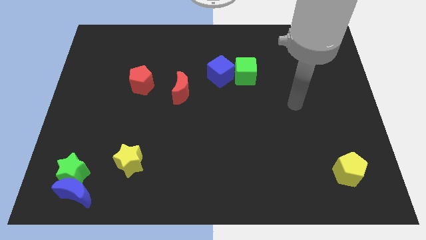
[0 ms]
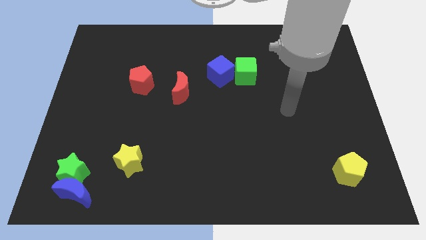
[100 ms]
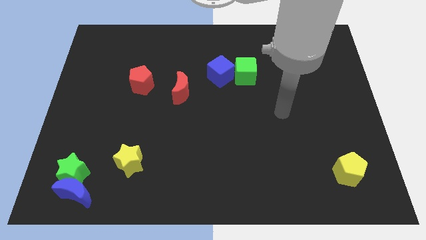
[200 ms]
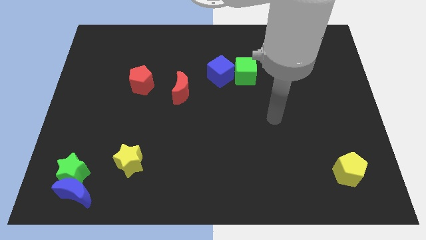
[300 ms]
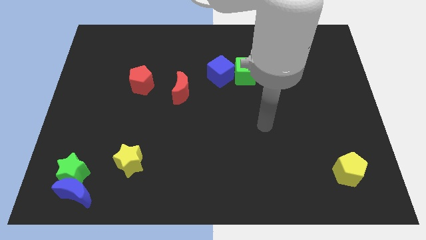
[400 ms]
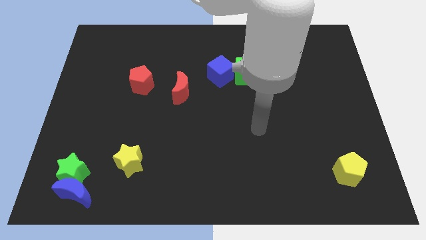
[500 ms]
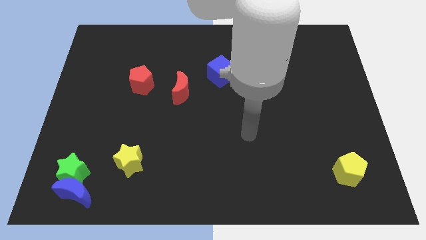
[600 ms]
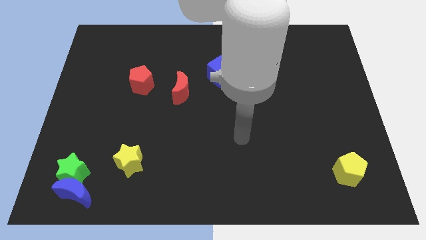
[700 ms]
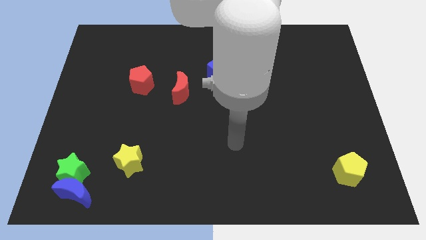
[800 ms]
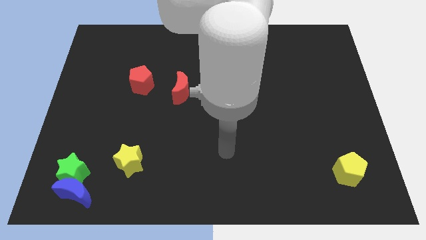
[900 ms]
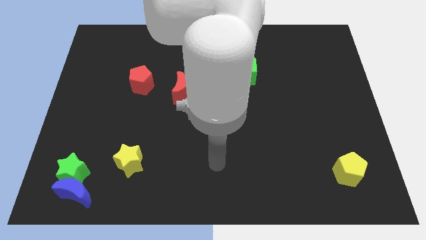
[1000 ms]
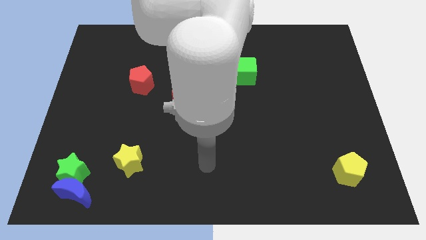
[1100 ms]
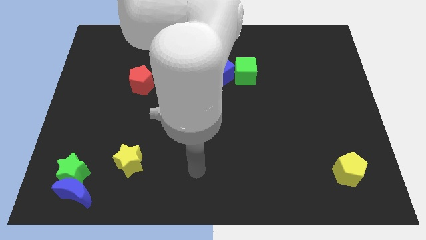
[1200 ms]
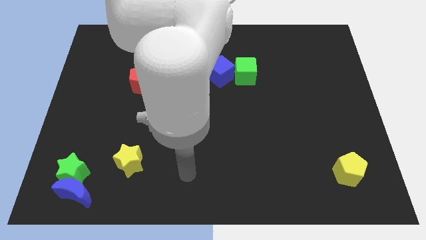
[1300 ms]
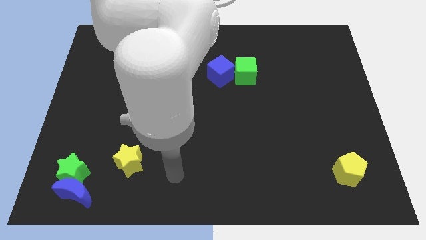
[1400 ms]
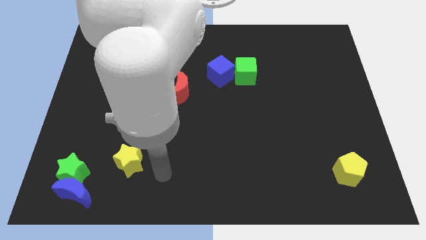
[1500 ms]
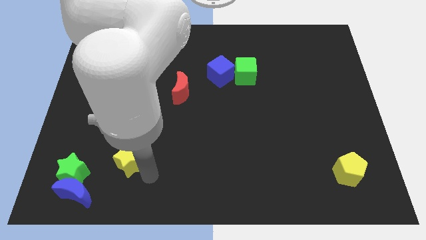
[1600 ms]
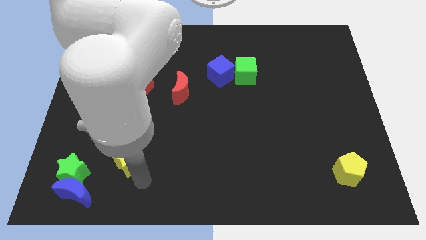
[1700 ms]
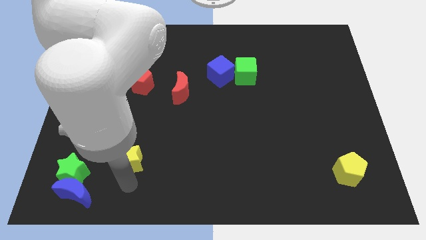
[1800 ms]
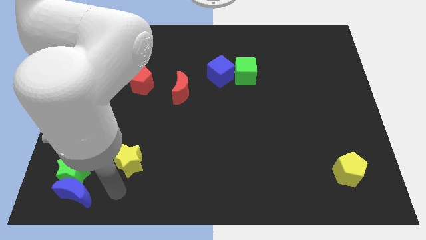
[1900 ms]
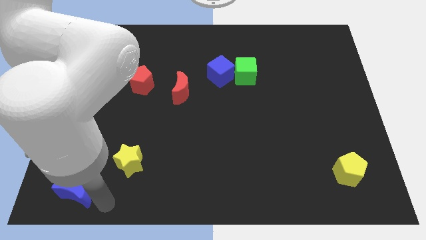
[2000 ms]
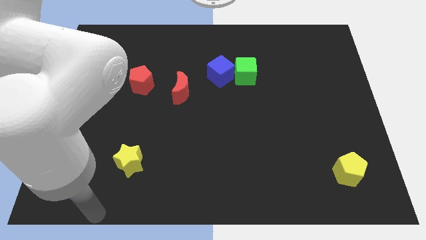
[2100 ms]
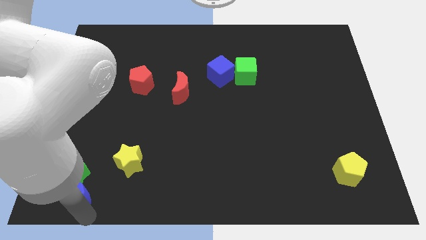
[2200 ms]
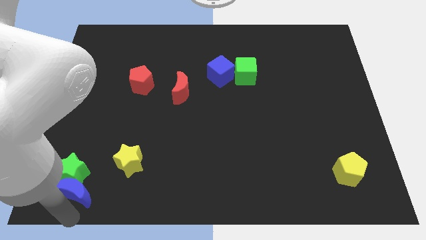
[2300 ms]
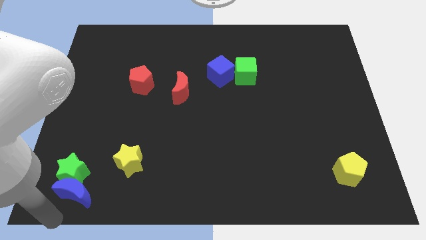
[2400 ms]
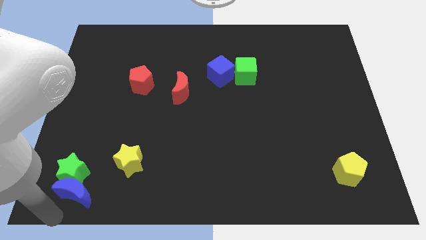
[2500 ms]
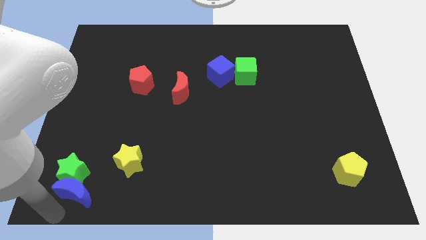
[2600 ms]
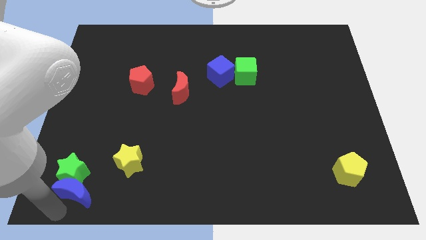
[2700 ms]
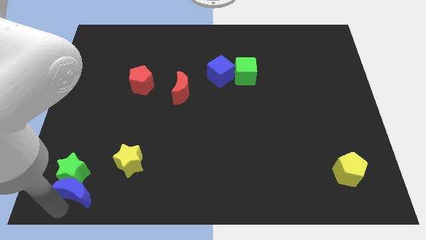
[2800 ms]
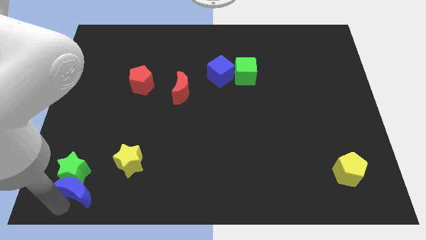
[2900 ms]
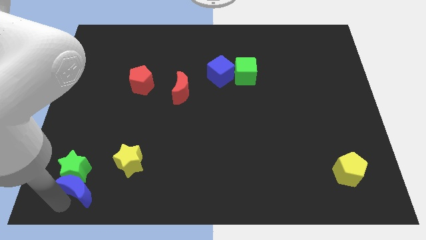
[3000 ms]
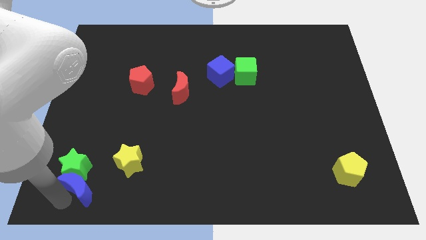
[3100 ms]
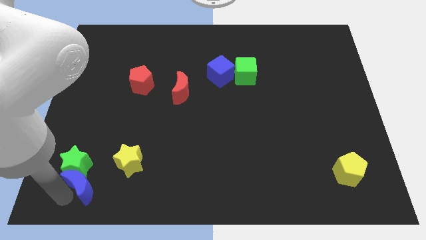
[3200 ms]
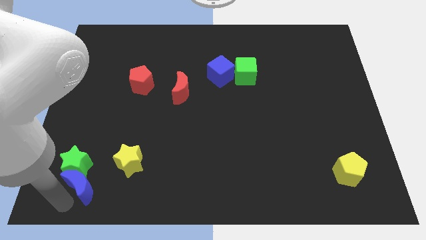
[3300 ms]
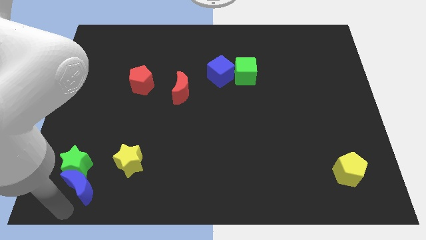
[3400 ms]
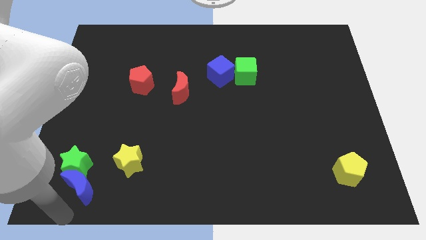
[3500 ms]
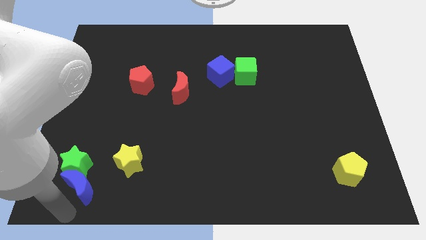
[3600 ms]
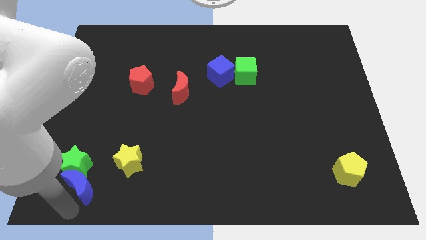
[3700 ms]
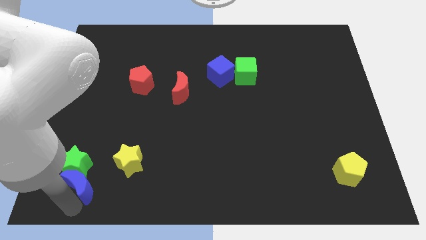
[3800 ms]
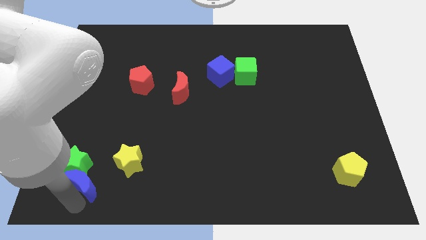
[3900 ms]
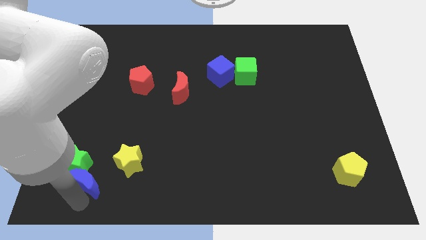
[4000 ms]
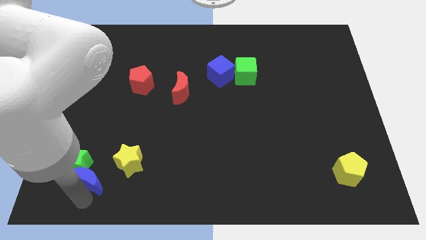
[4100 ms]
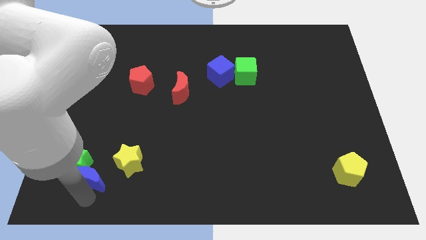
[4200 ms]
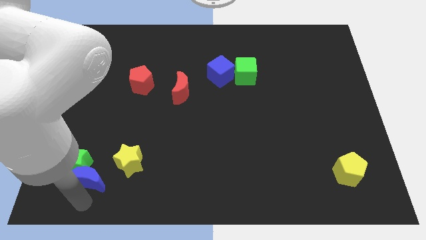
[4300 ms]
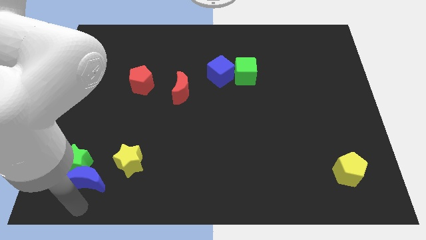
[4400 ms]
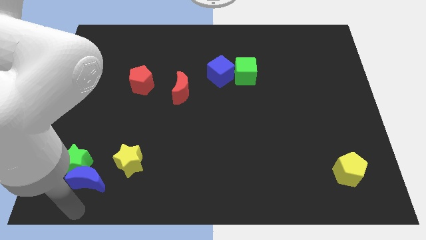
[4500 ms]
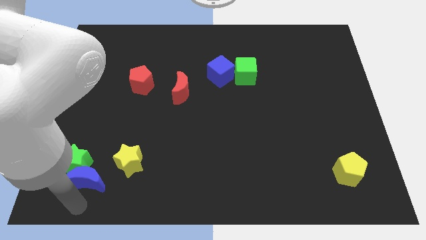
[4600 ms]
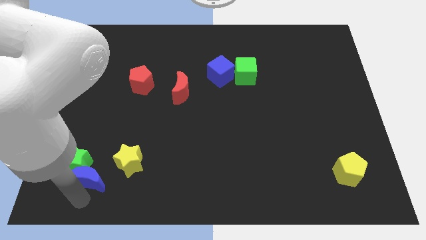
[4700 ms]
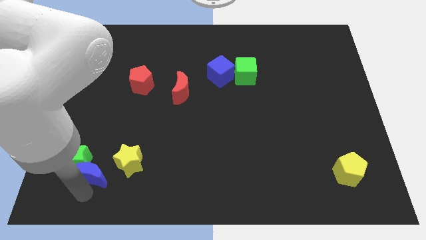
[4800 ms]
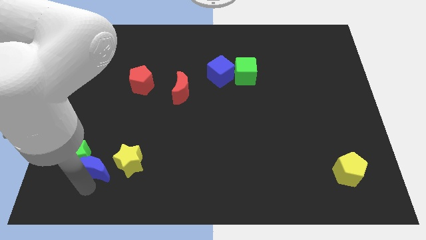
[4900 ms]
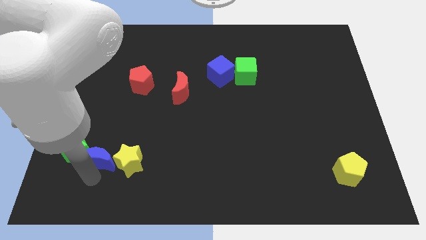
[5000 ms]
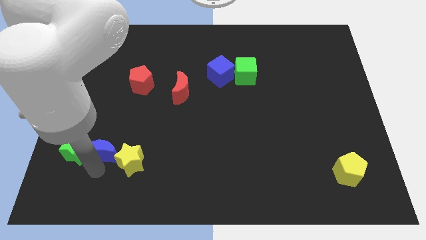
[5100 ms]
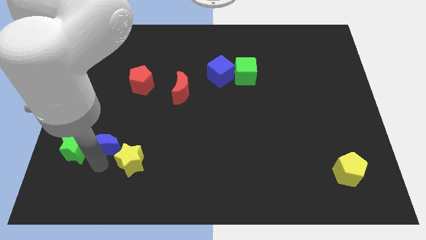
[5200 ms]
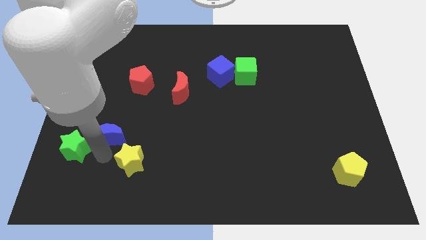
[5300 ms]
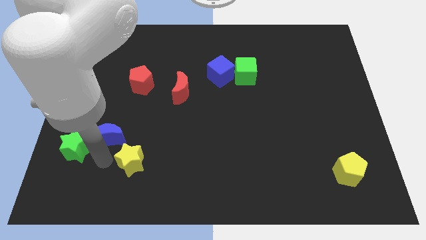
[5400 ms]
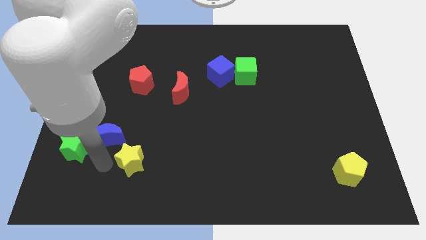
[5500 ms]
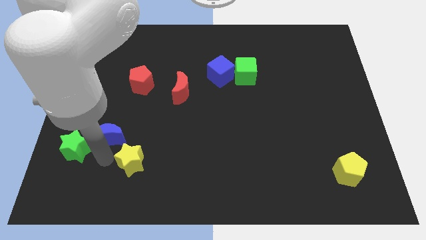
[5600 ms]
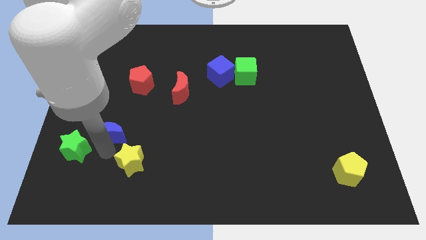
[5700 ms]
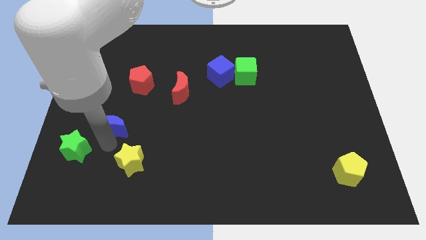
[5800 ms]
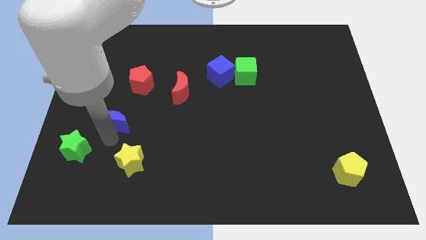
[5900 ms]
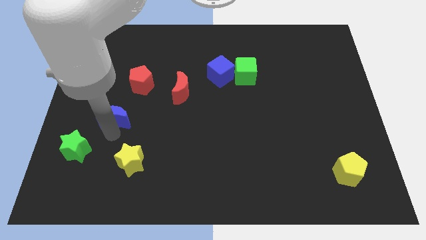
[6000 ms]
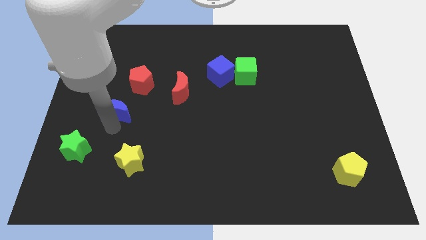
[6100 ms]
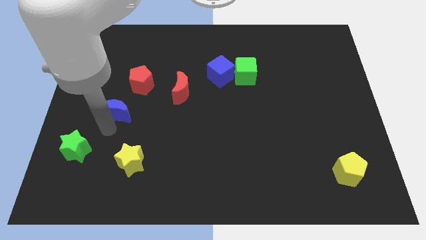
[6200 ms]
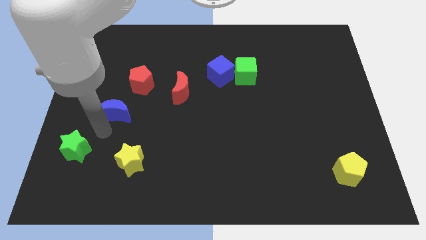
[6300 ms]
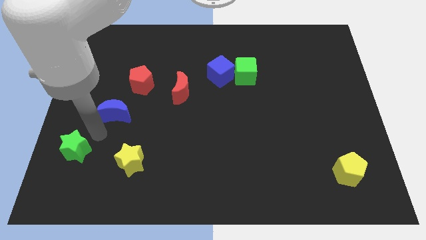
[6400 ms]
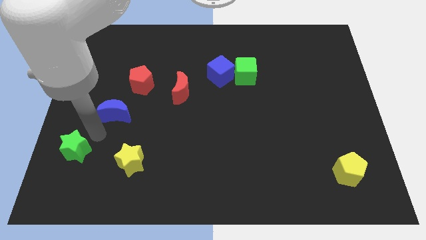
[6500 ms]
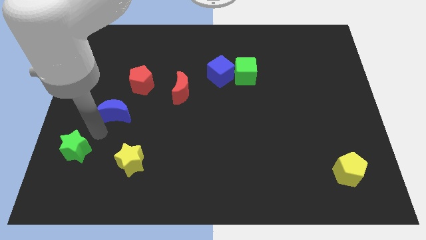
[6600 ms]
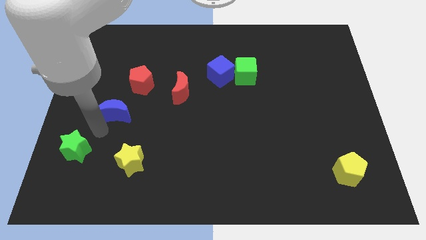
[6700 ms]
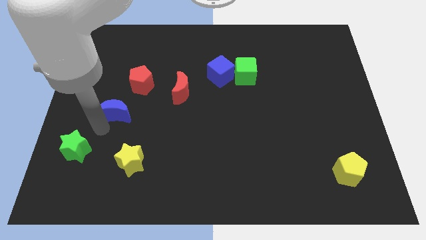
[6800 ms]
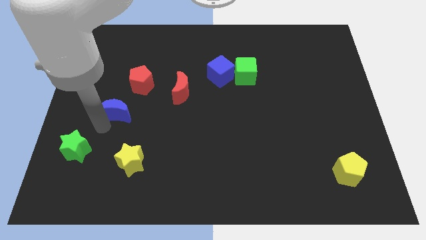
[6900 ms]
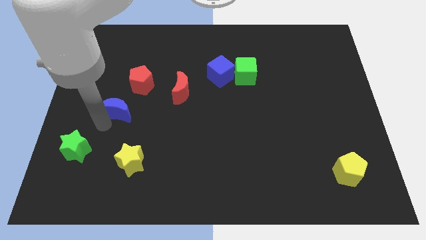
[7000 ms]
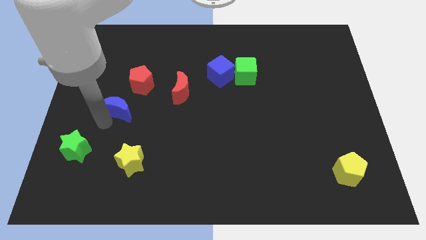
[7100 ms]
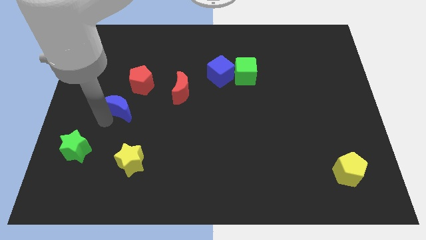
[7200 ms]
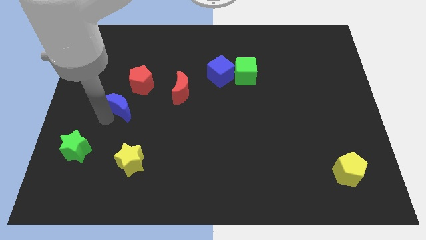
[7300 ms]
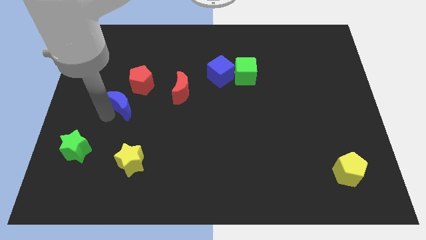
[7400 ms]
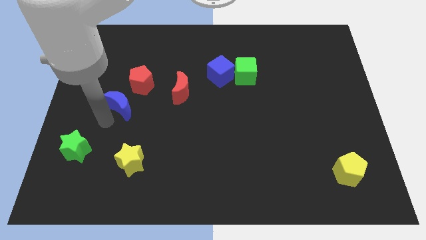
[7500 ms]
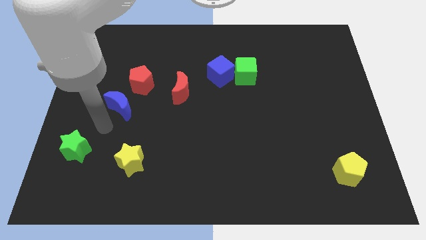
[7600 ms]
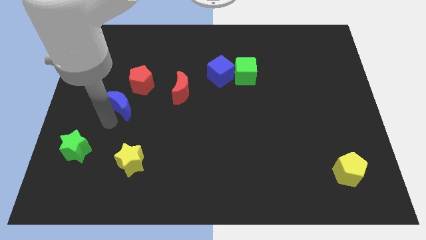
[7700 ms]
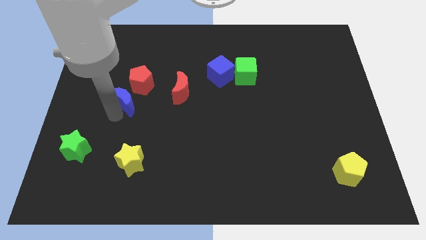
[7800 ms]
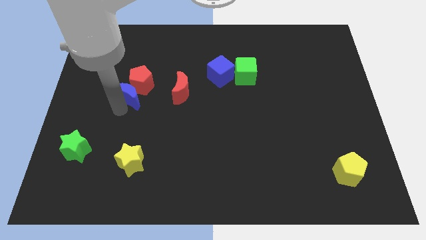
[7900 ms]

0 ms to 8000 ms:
push the blue moon next to the red pentagon
